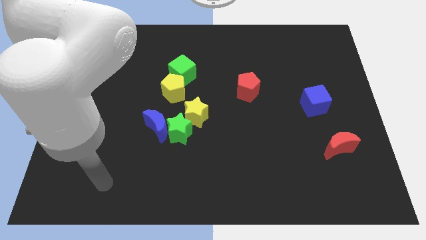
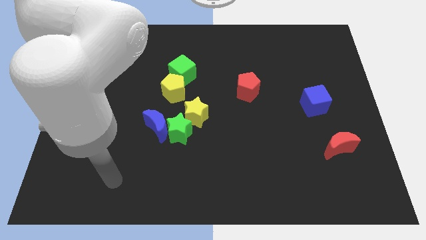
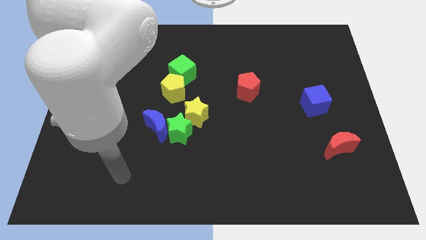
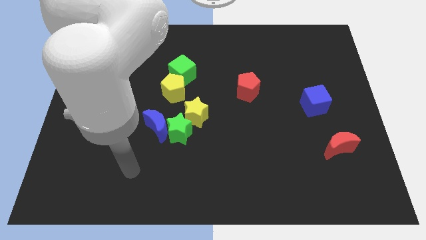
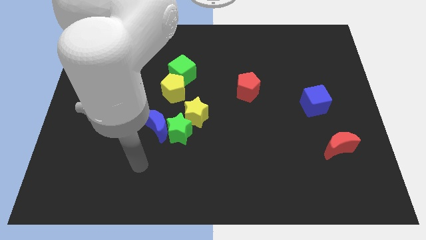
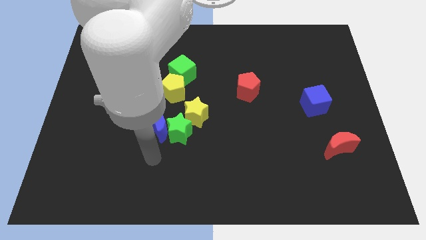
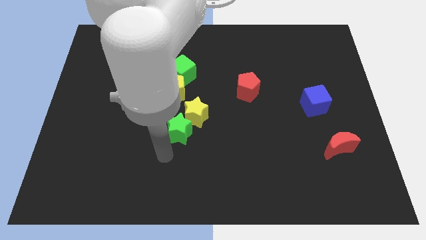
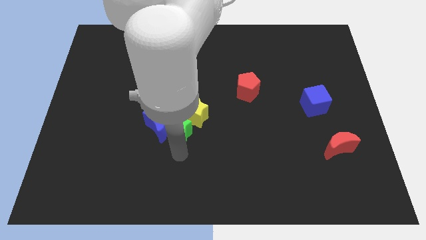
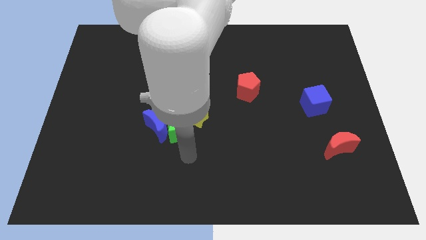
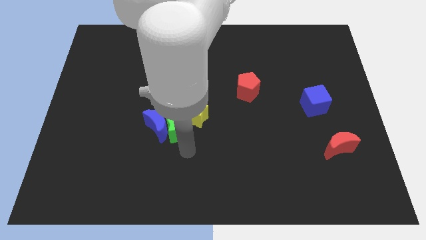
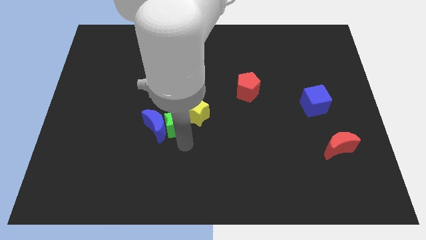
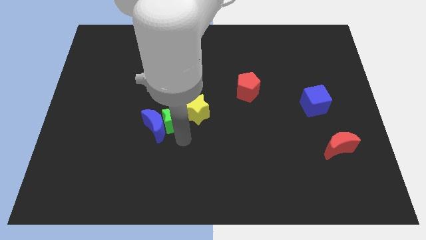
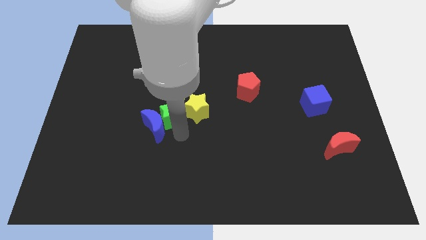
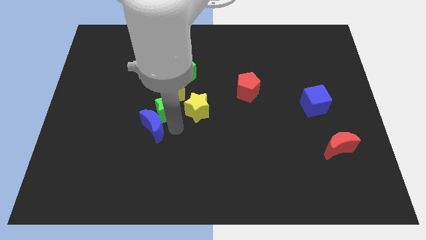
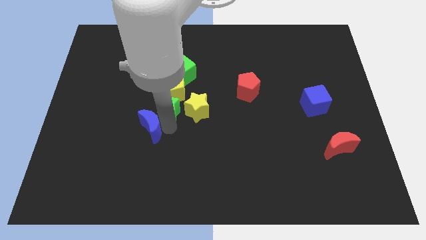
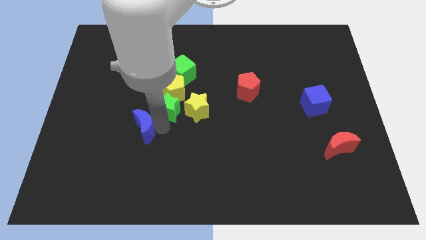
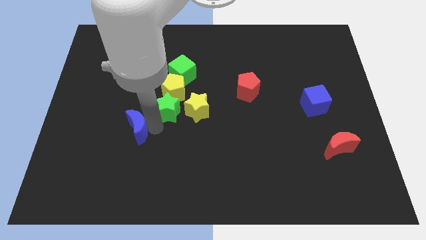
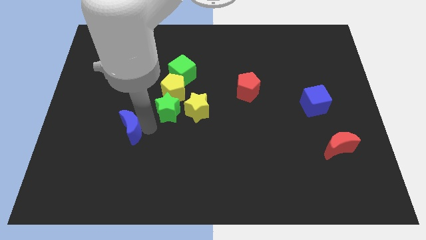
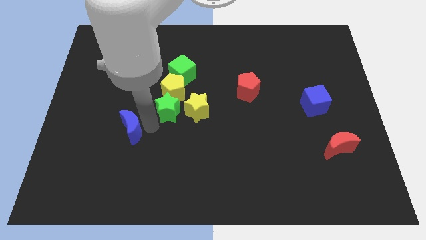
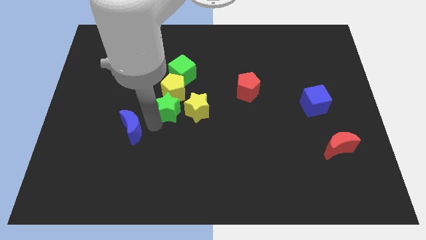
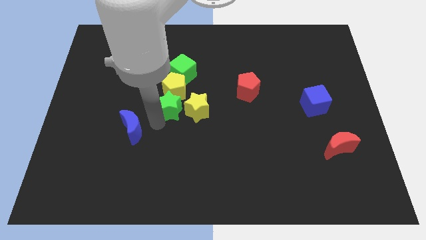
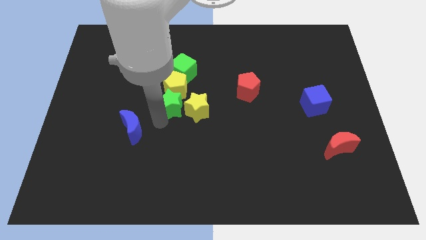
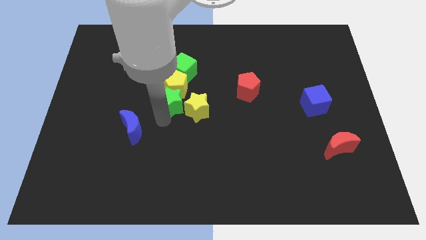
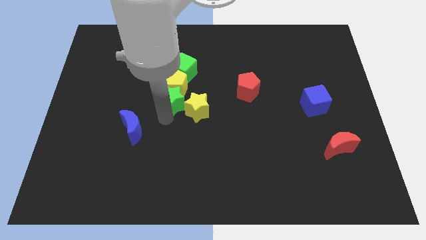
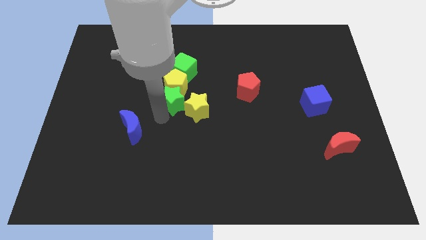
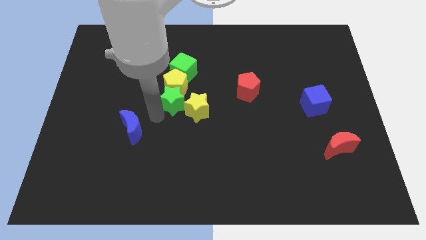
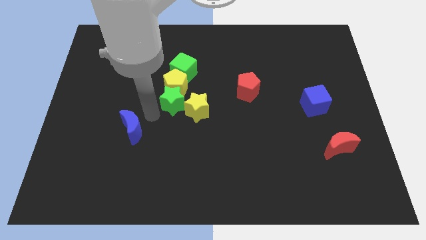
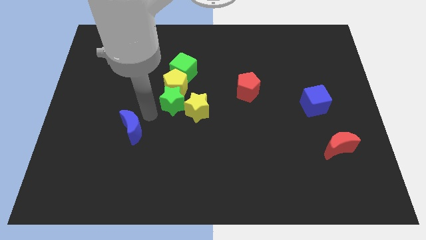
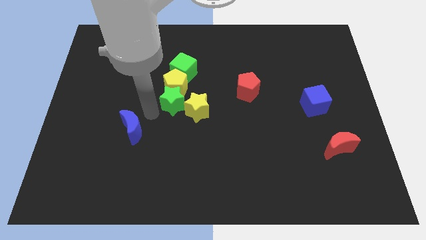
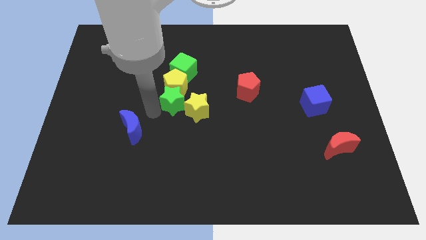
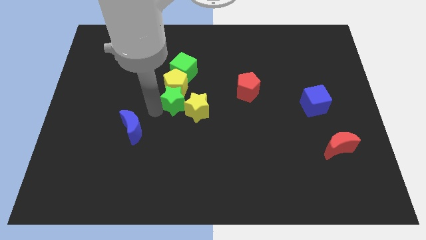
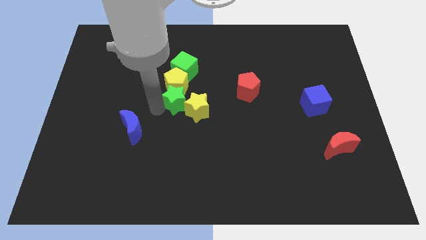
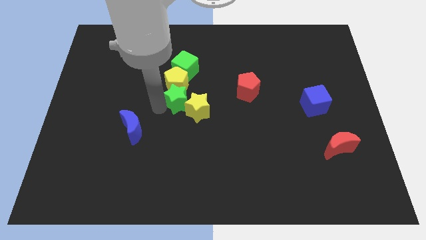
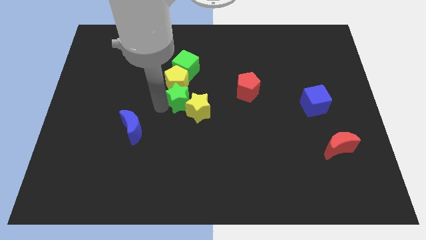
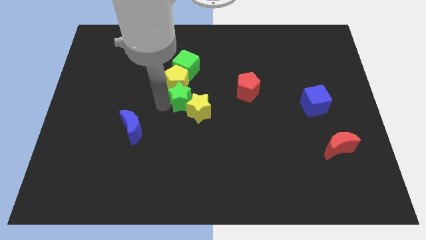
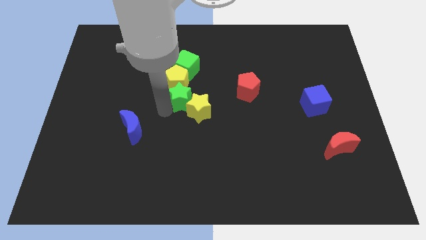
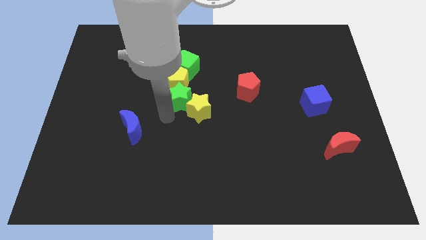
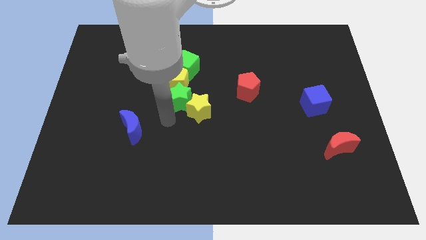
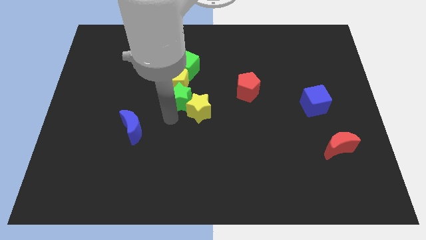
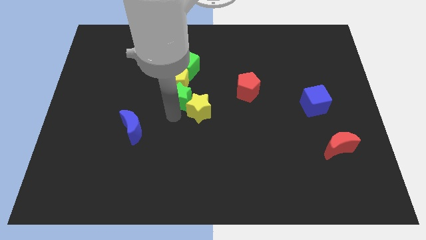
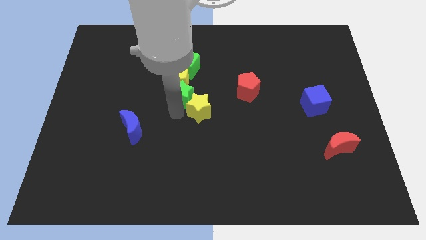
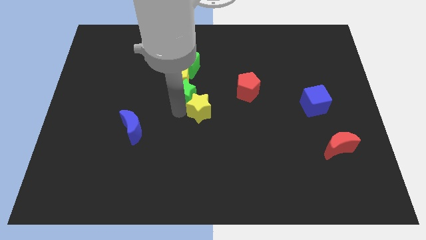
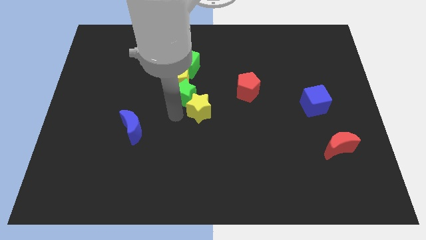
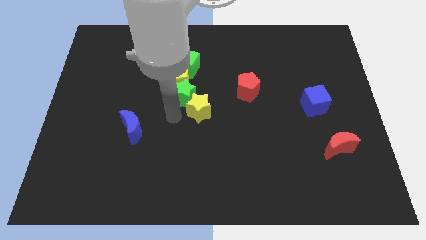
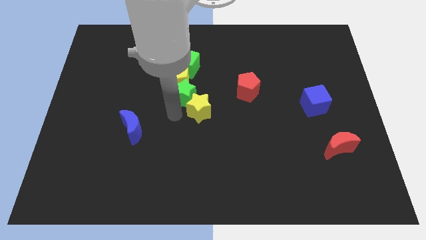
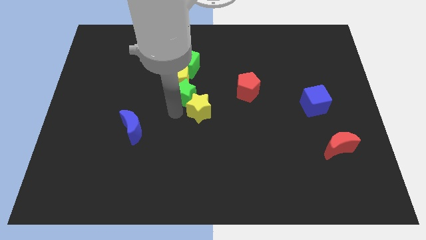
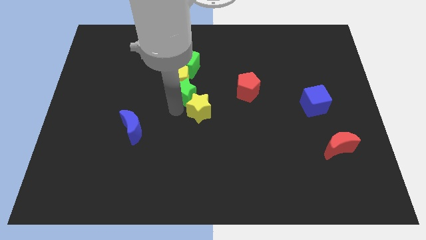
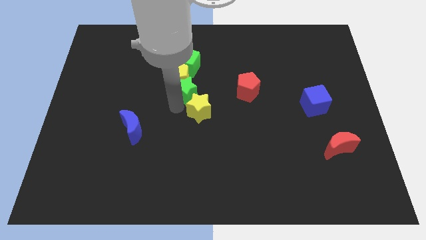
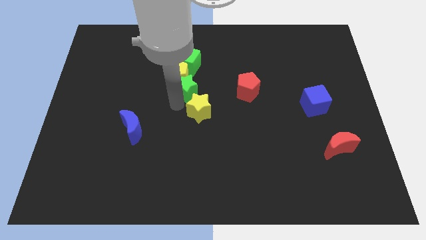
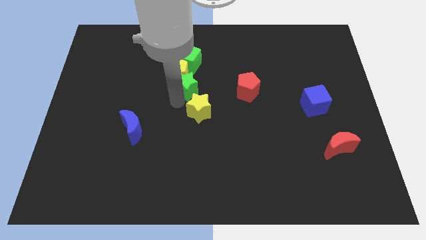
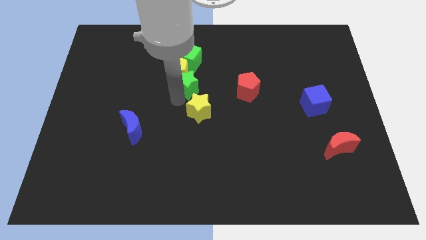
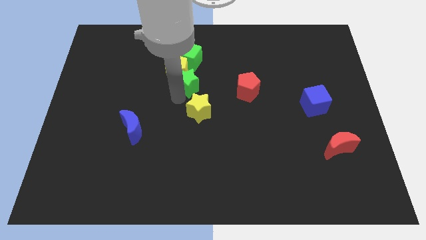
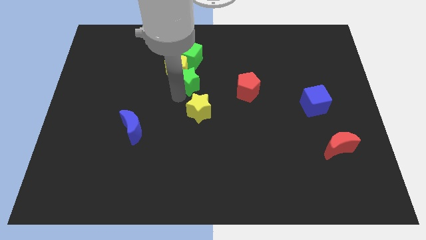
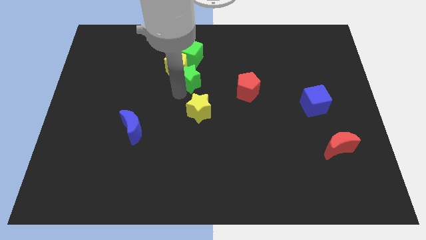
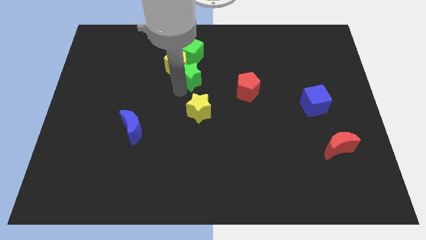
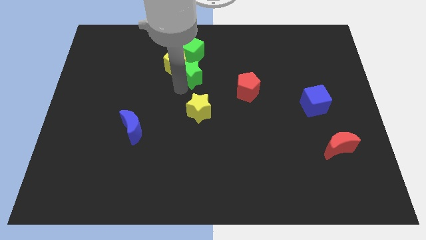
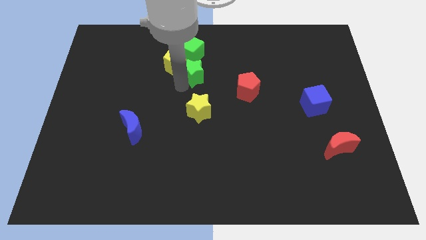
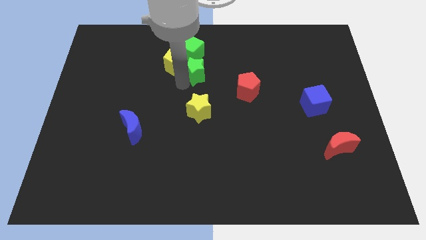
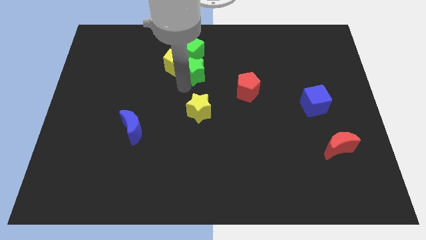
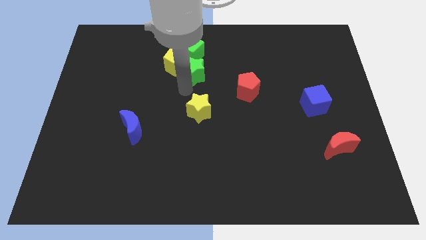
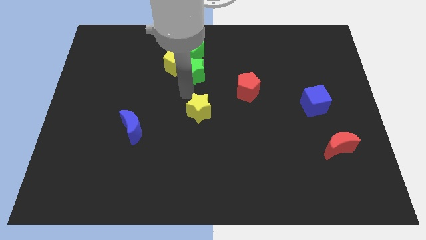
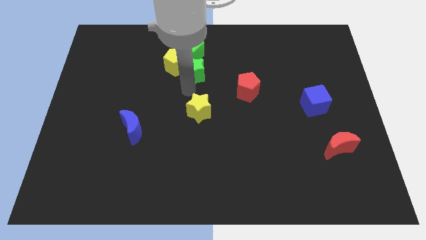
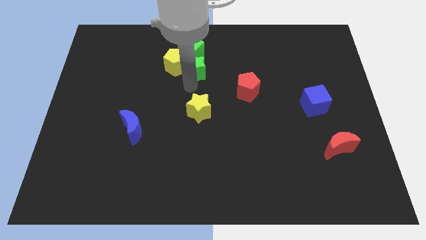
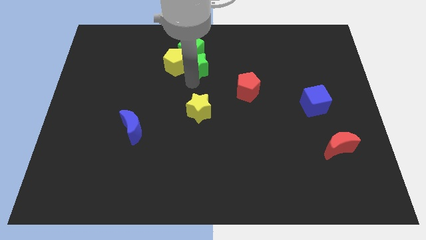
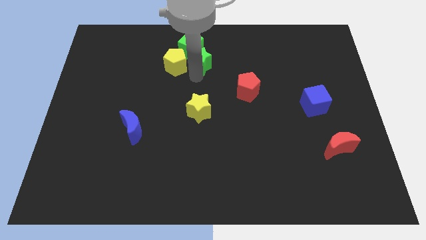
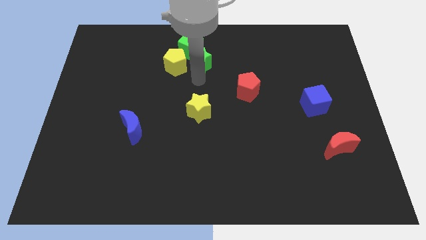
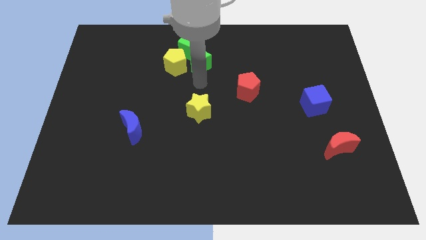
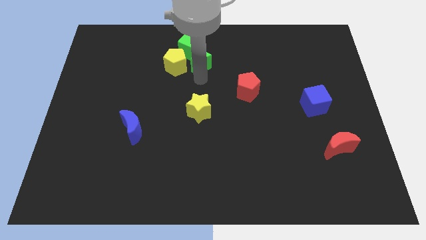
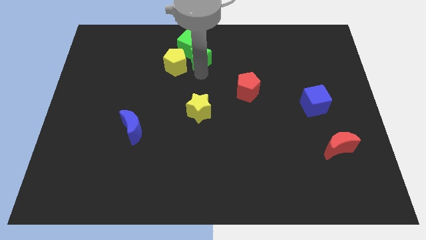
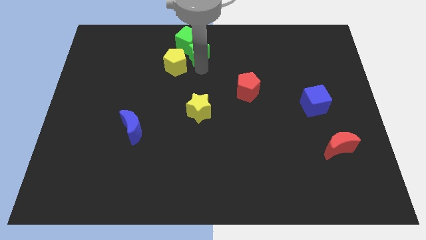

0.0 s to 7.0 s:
put the green star to the top
